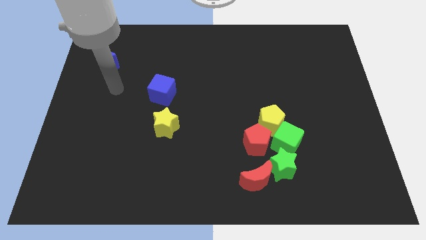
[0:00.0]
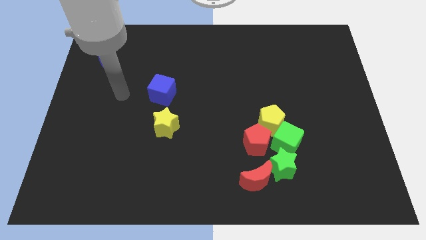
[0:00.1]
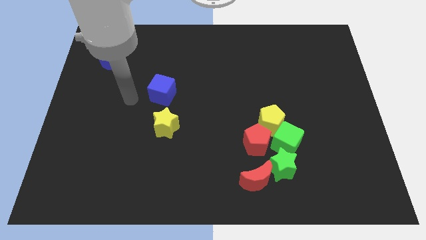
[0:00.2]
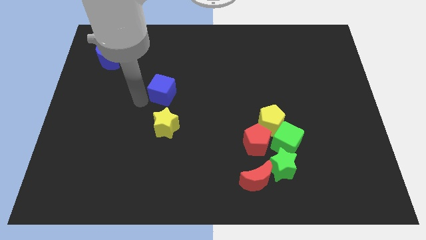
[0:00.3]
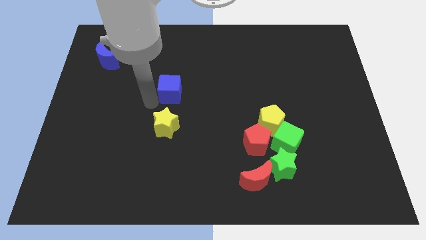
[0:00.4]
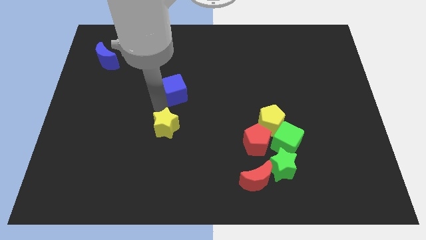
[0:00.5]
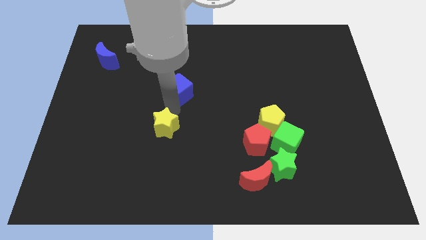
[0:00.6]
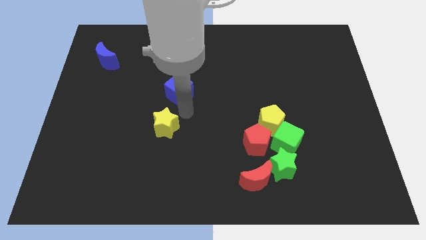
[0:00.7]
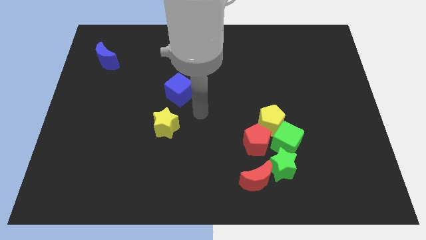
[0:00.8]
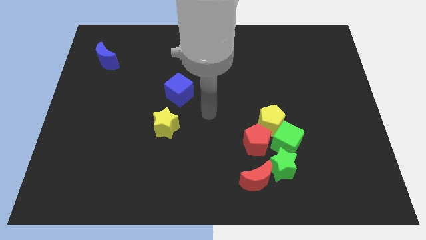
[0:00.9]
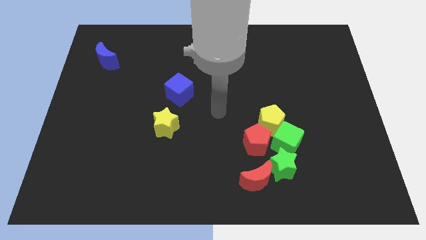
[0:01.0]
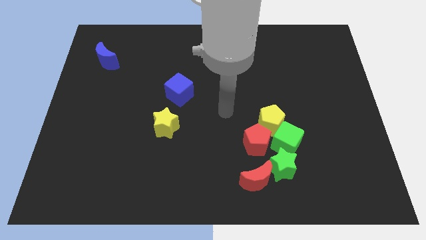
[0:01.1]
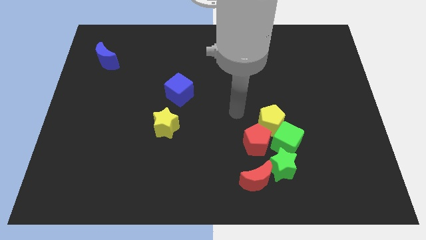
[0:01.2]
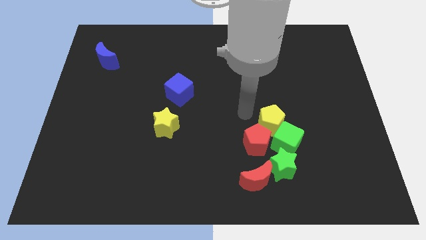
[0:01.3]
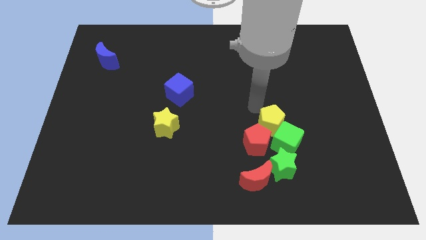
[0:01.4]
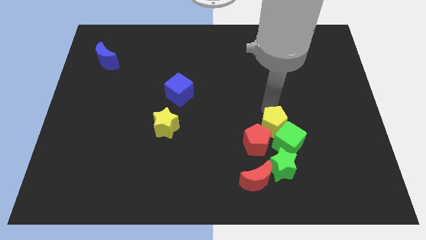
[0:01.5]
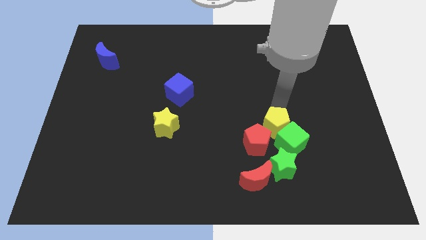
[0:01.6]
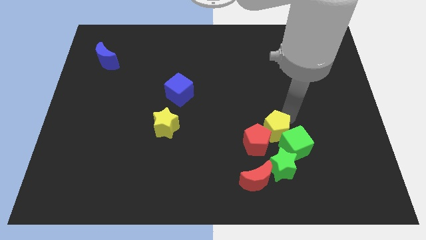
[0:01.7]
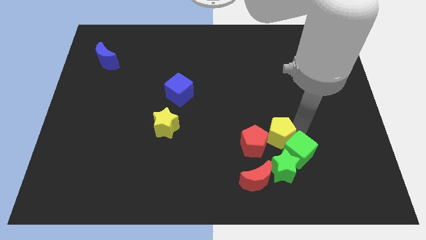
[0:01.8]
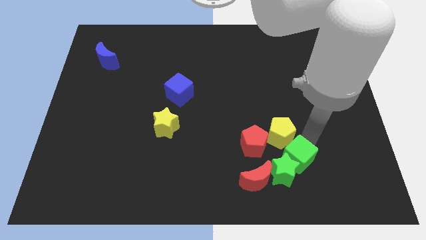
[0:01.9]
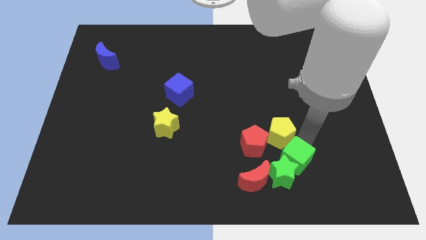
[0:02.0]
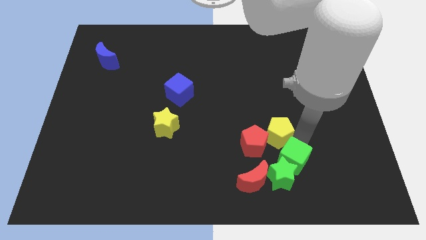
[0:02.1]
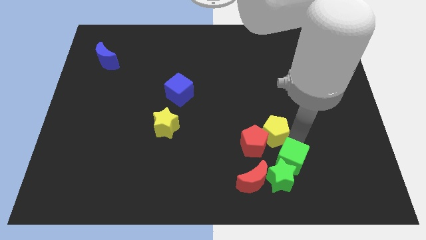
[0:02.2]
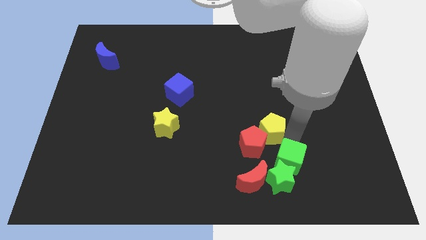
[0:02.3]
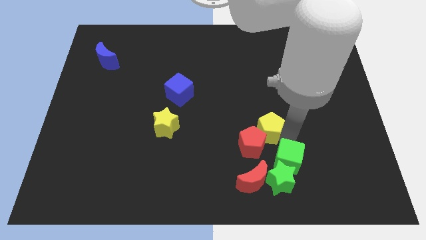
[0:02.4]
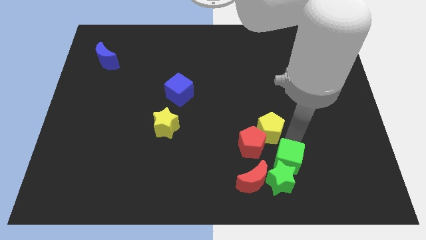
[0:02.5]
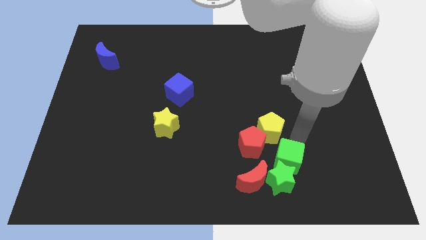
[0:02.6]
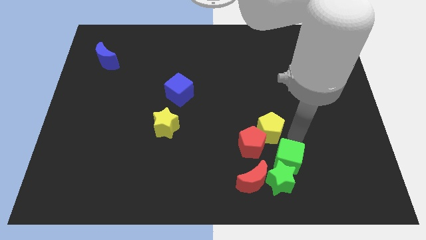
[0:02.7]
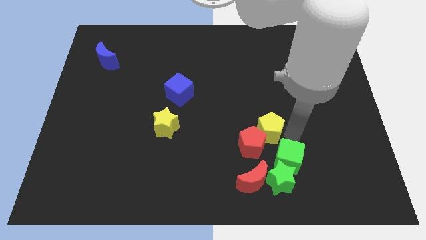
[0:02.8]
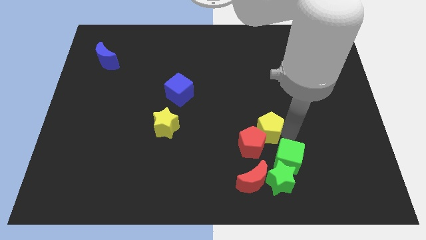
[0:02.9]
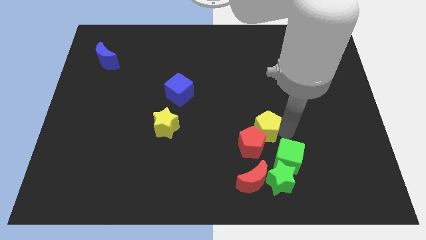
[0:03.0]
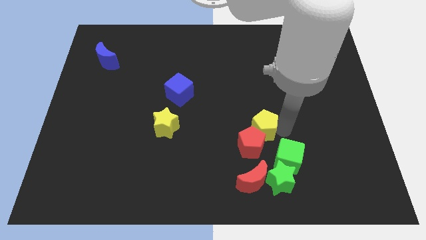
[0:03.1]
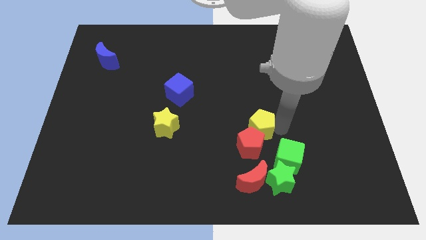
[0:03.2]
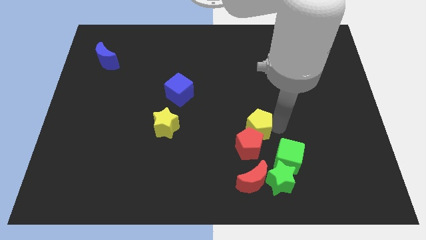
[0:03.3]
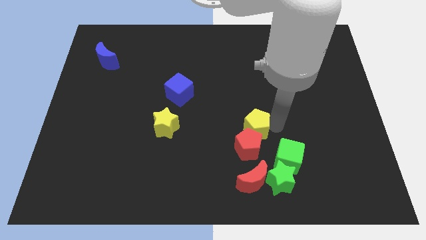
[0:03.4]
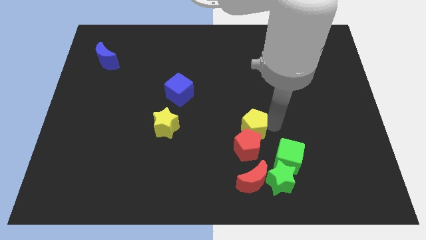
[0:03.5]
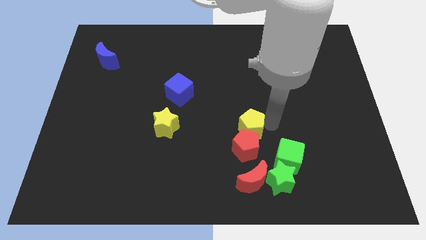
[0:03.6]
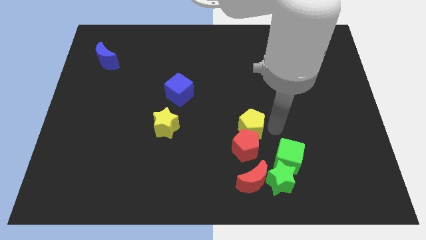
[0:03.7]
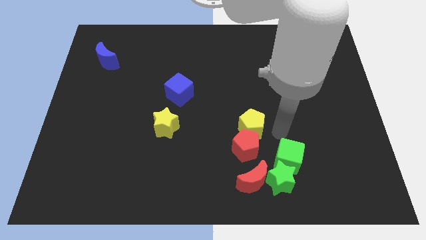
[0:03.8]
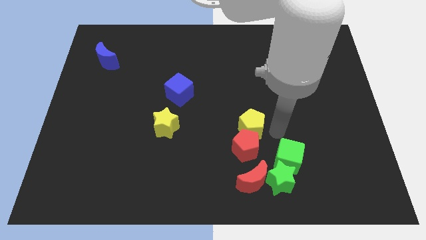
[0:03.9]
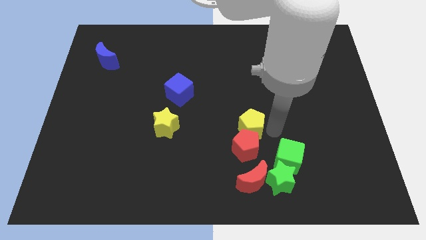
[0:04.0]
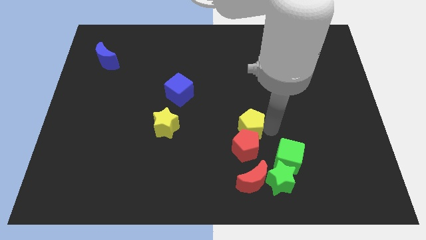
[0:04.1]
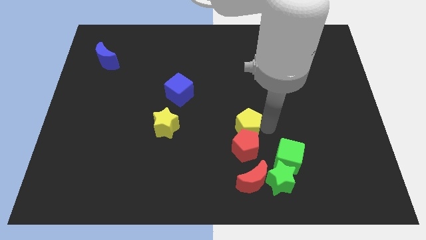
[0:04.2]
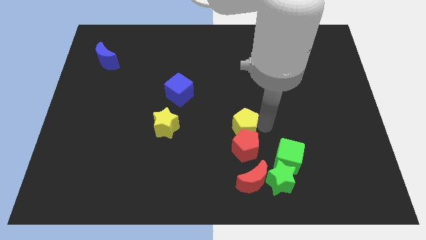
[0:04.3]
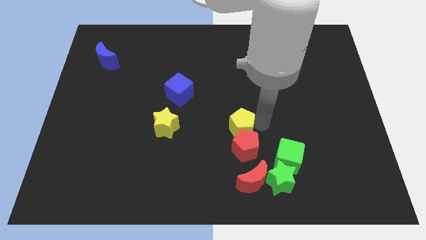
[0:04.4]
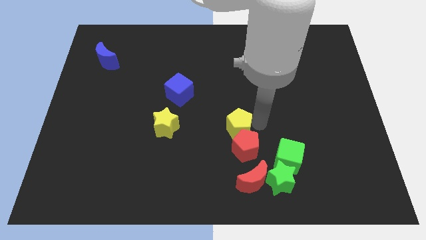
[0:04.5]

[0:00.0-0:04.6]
push the yellow pentagon a little left

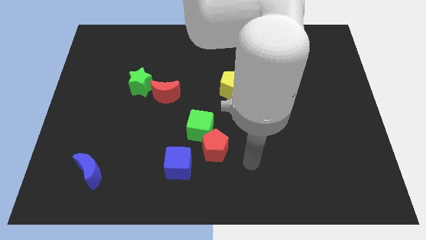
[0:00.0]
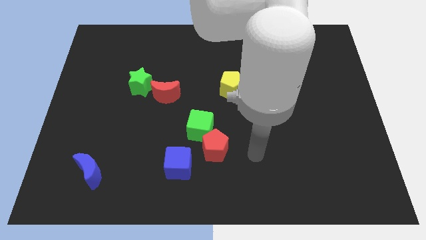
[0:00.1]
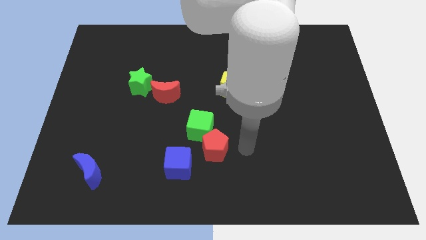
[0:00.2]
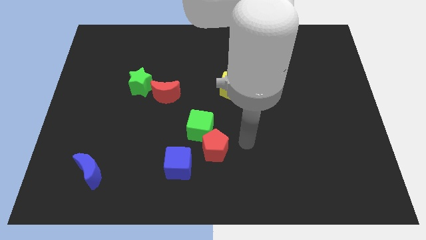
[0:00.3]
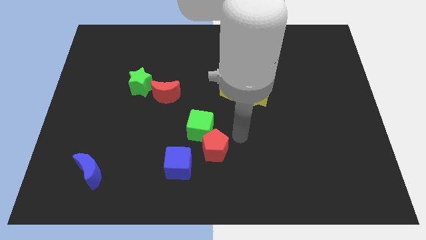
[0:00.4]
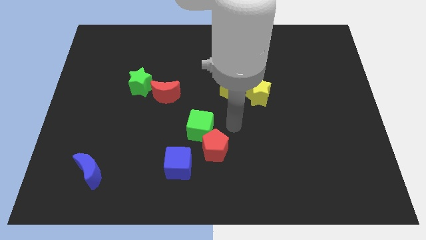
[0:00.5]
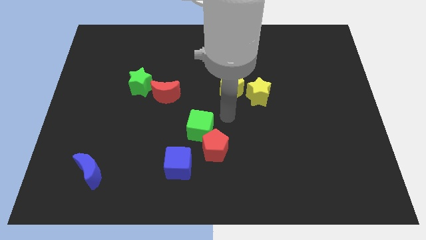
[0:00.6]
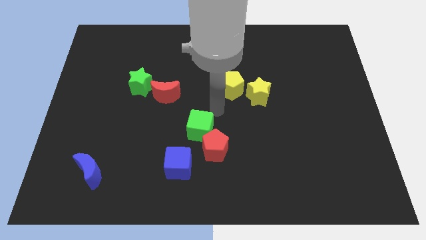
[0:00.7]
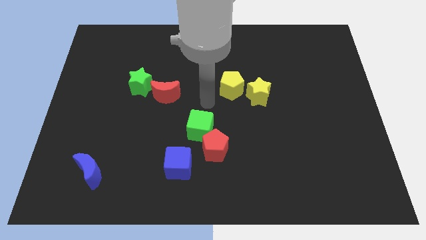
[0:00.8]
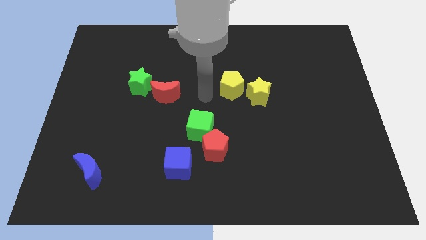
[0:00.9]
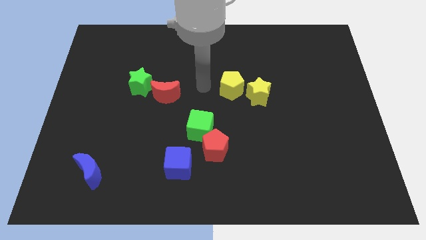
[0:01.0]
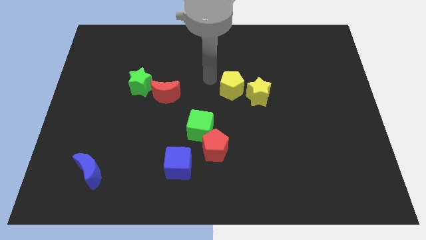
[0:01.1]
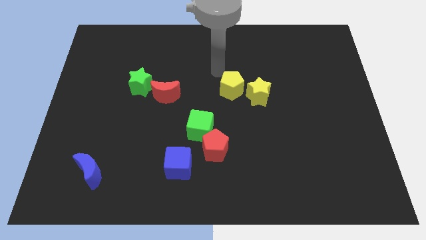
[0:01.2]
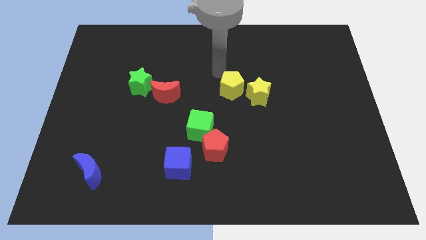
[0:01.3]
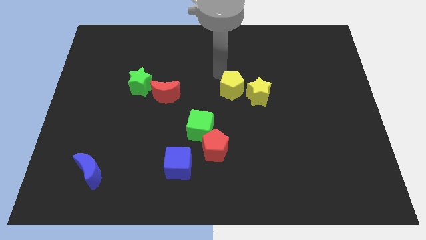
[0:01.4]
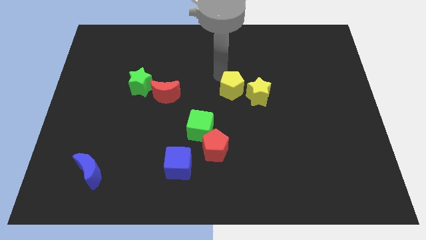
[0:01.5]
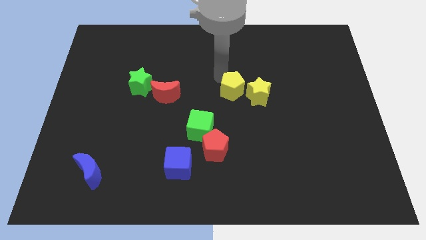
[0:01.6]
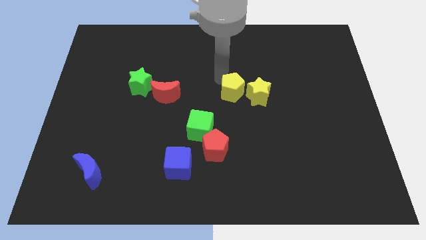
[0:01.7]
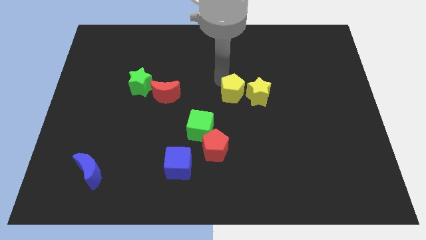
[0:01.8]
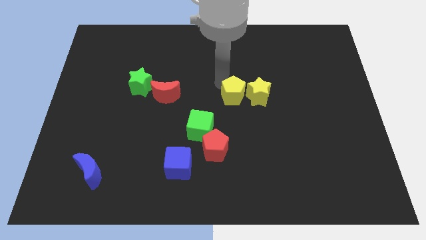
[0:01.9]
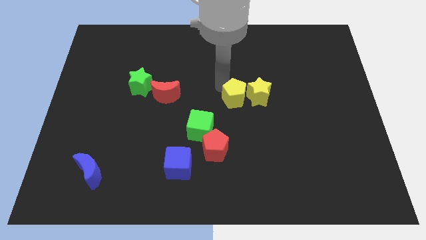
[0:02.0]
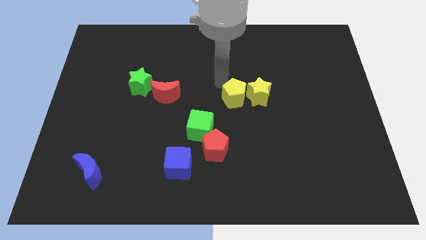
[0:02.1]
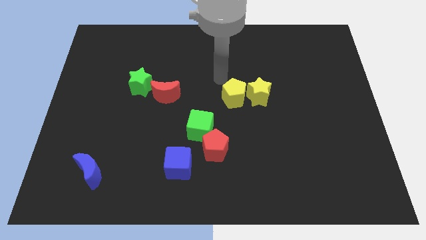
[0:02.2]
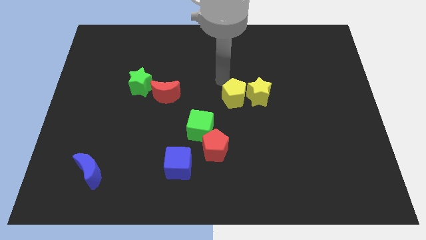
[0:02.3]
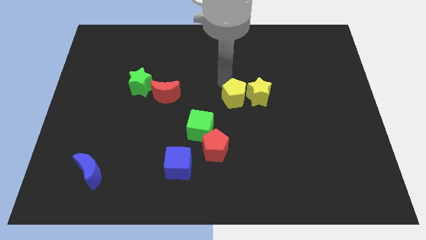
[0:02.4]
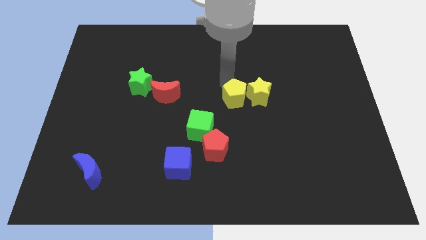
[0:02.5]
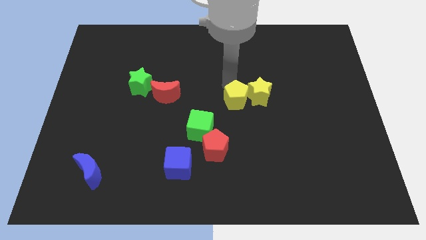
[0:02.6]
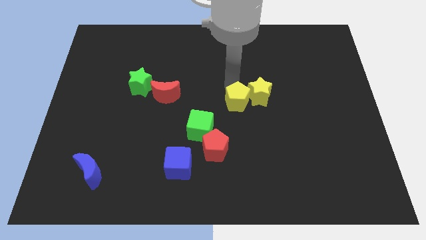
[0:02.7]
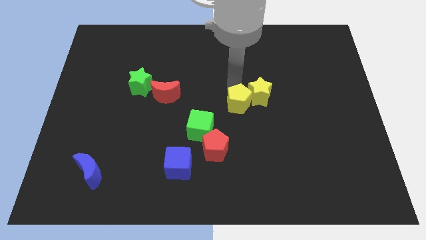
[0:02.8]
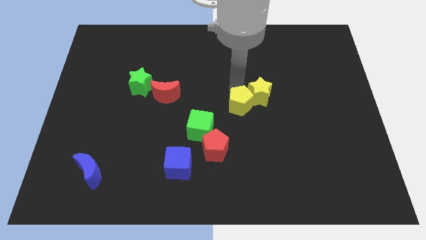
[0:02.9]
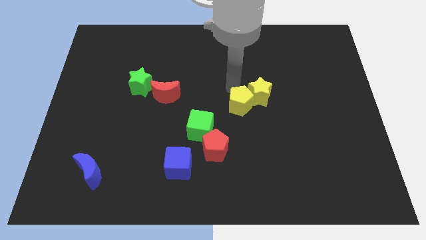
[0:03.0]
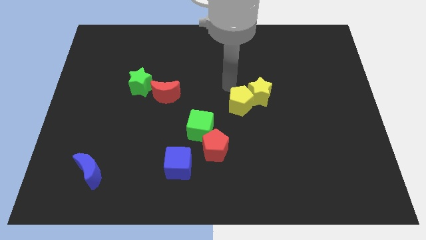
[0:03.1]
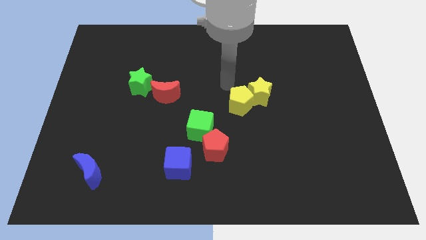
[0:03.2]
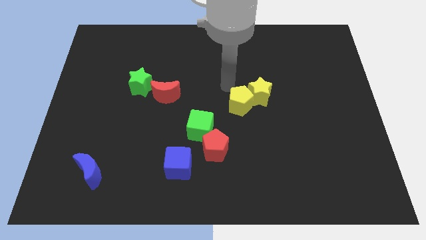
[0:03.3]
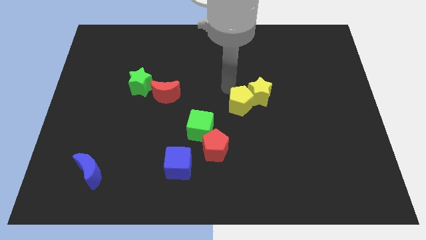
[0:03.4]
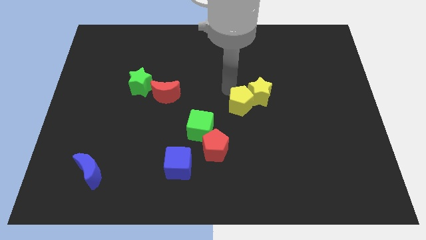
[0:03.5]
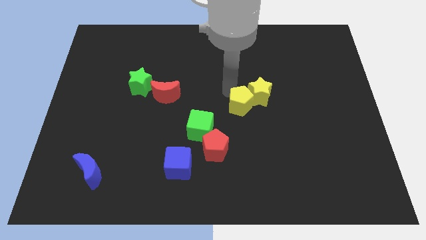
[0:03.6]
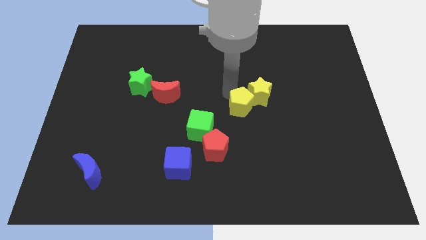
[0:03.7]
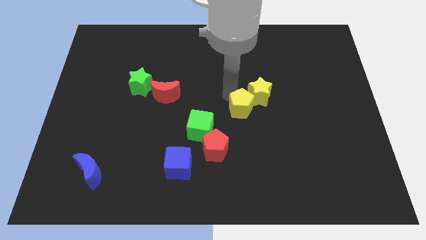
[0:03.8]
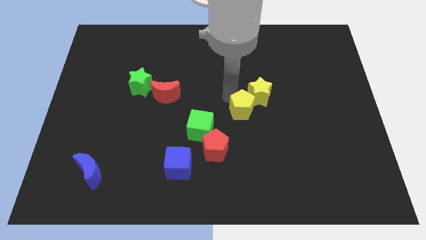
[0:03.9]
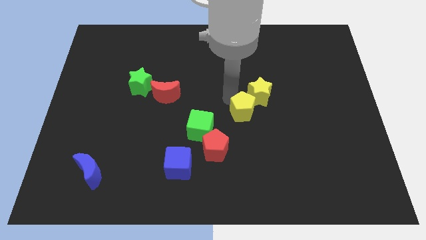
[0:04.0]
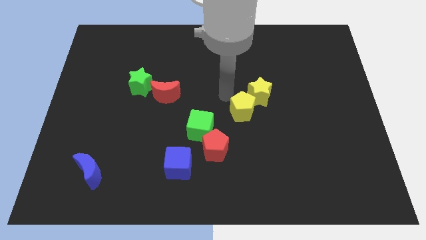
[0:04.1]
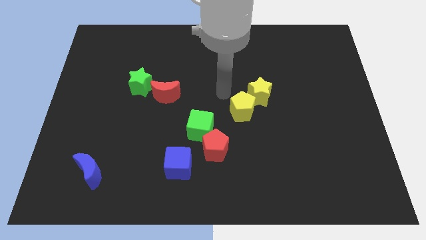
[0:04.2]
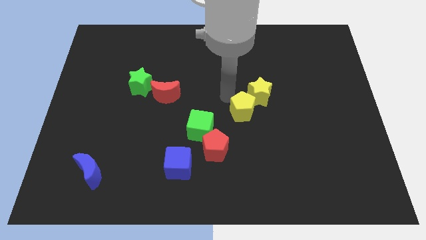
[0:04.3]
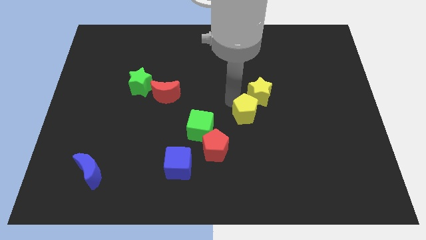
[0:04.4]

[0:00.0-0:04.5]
push the yellow pentagon down and then right a bit
